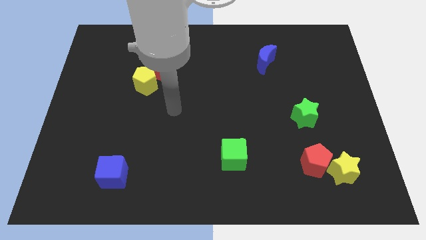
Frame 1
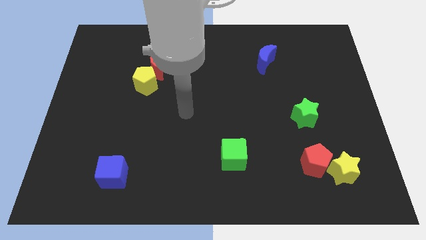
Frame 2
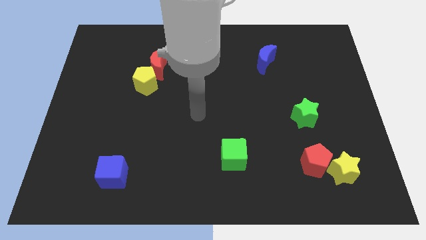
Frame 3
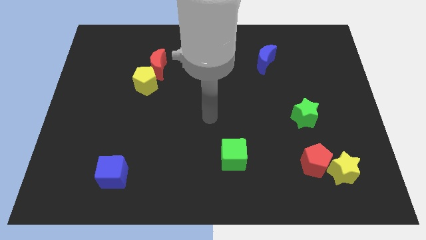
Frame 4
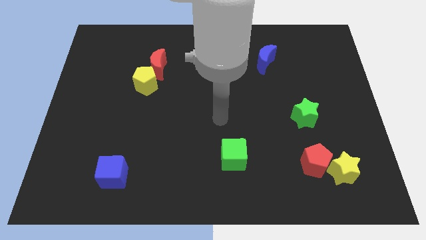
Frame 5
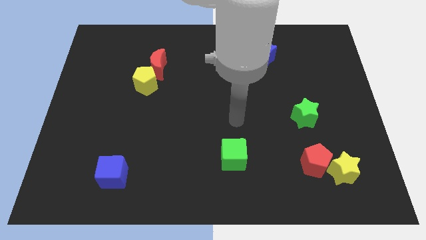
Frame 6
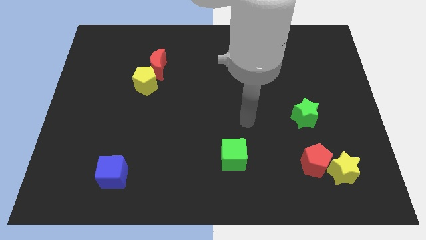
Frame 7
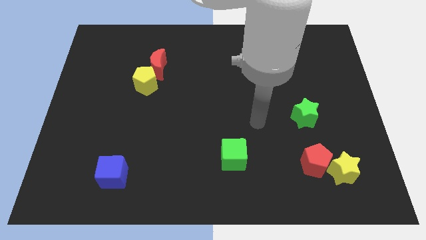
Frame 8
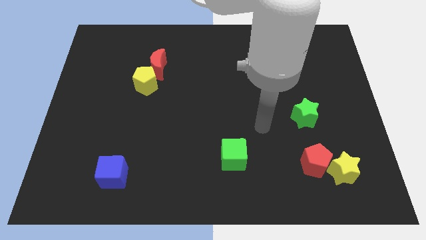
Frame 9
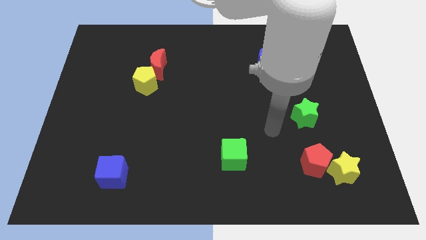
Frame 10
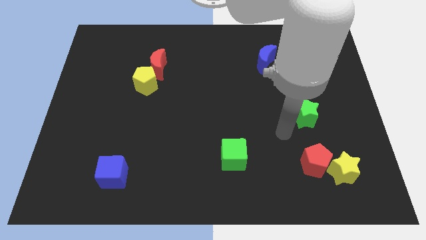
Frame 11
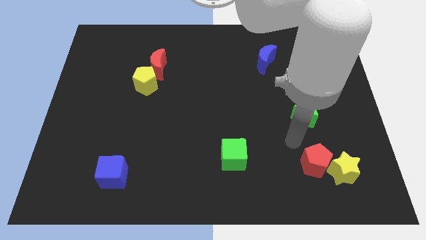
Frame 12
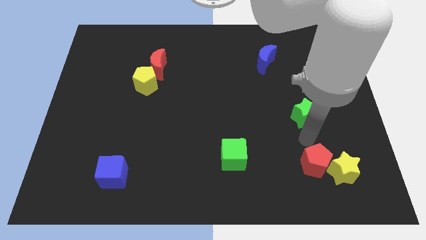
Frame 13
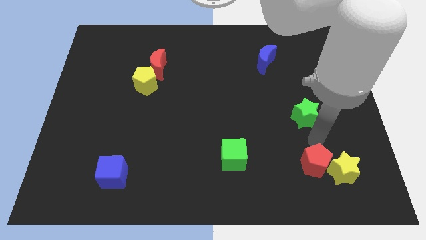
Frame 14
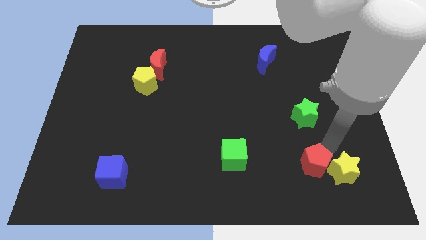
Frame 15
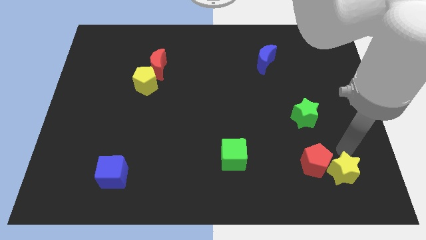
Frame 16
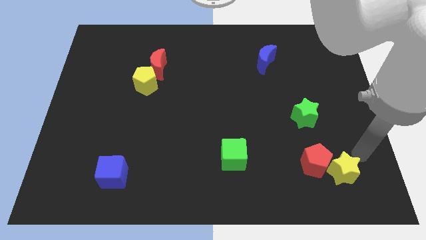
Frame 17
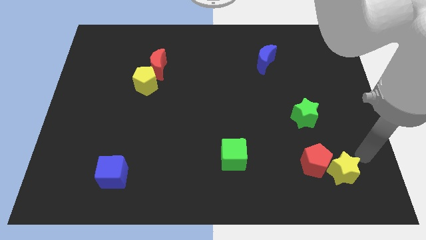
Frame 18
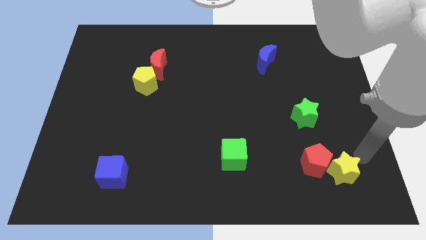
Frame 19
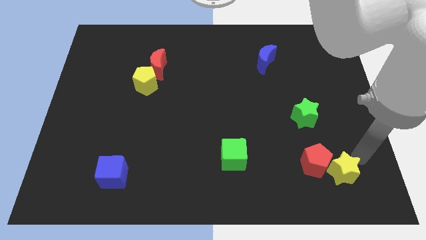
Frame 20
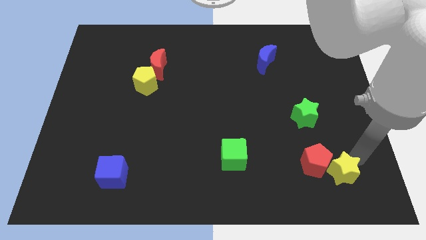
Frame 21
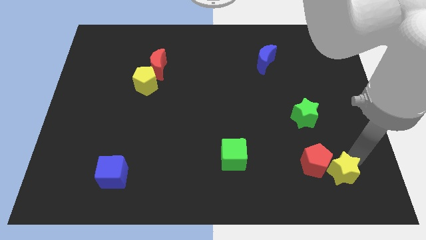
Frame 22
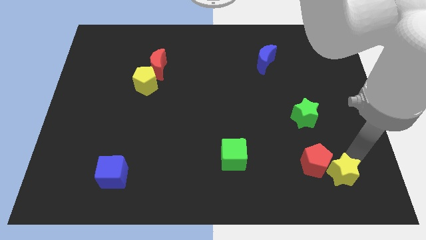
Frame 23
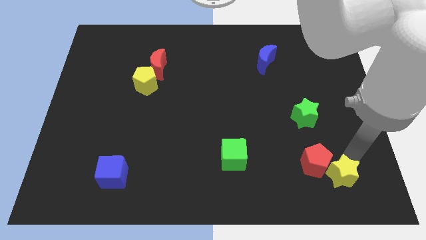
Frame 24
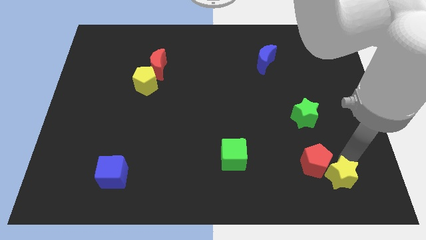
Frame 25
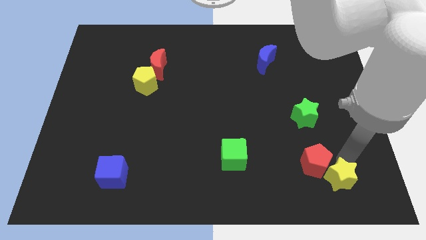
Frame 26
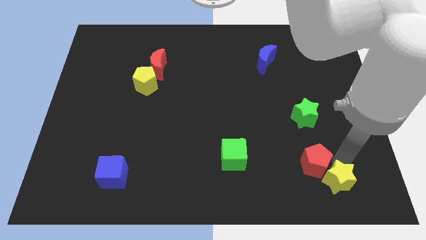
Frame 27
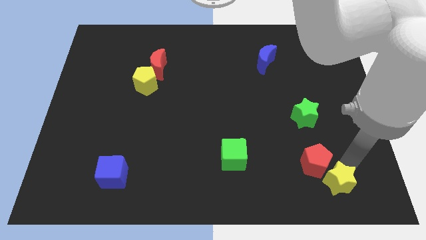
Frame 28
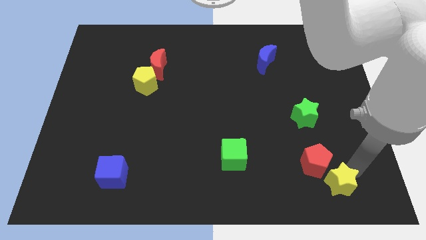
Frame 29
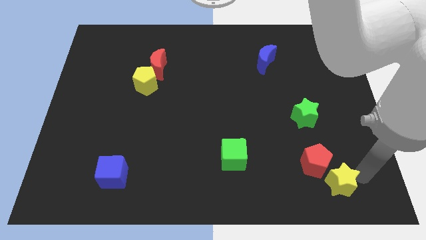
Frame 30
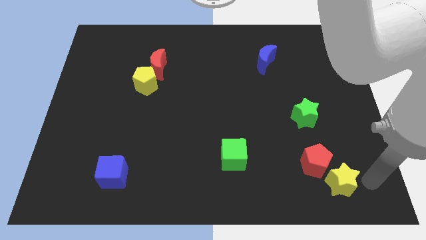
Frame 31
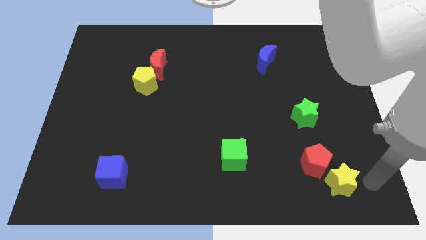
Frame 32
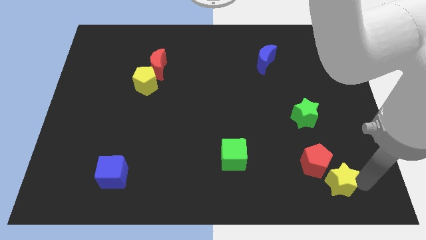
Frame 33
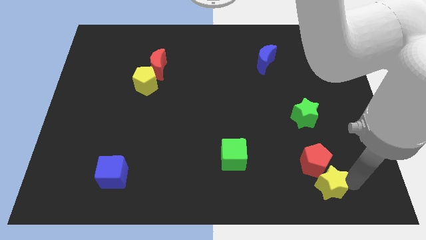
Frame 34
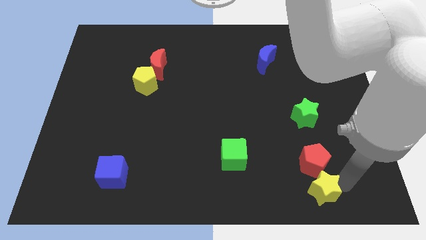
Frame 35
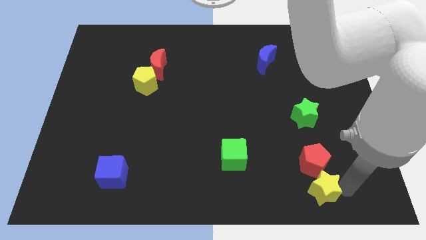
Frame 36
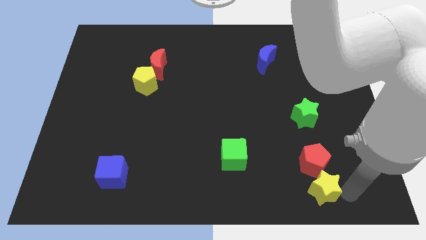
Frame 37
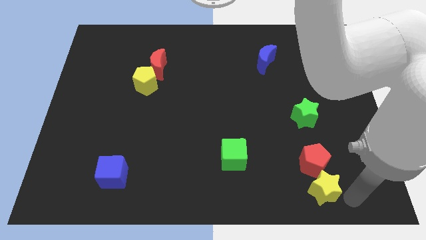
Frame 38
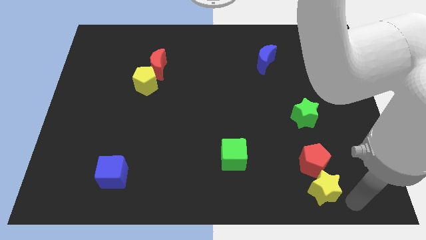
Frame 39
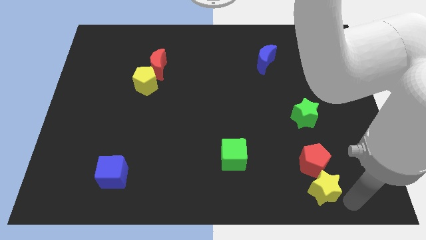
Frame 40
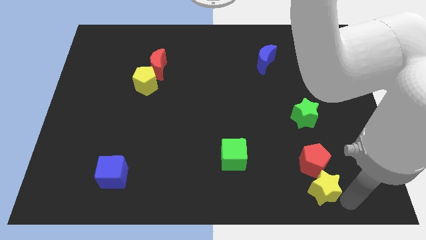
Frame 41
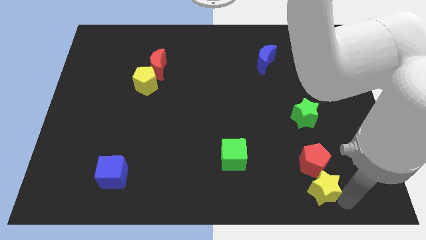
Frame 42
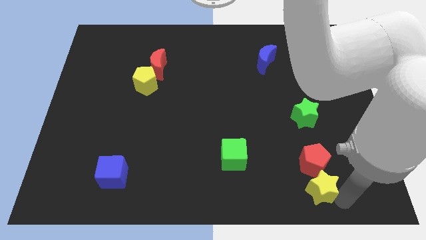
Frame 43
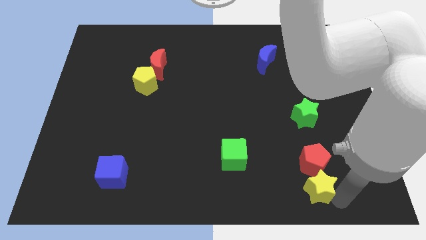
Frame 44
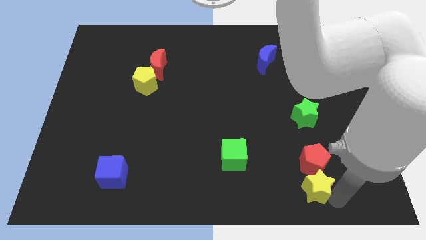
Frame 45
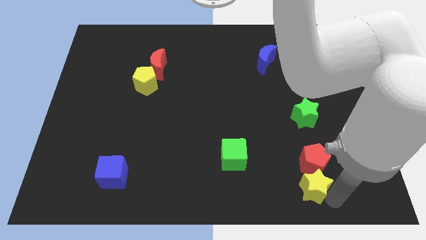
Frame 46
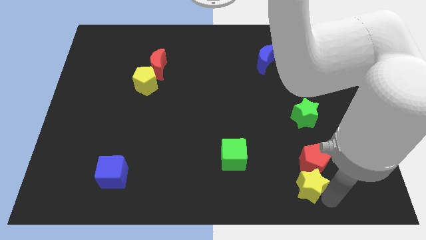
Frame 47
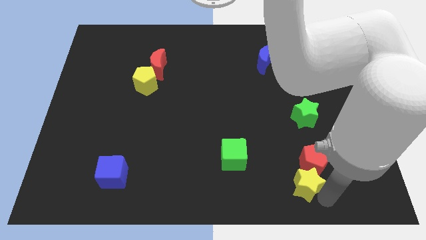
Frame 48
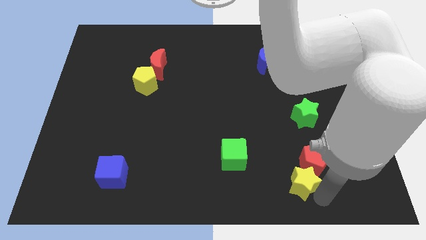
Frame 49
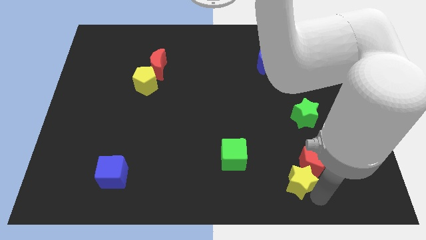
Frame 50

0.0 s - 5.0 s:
push the yellow star just left of the red pentagon

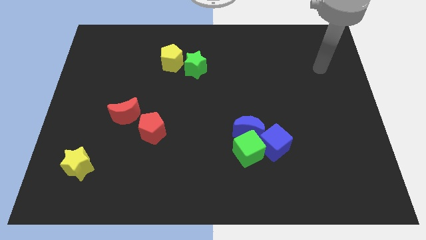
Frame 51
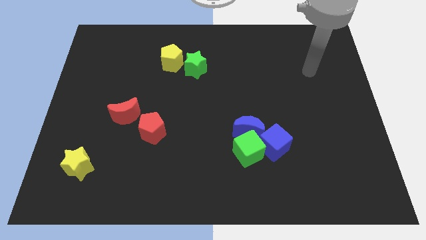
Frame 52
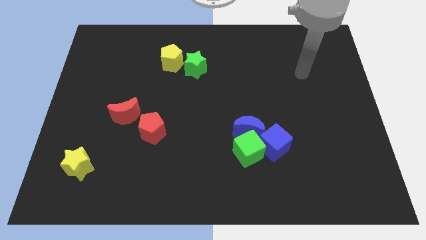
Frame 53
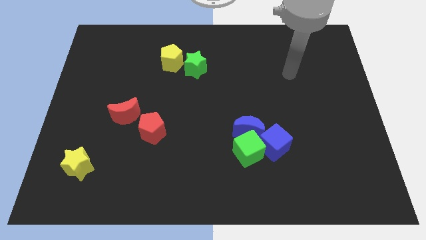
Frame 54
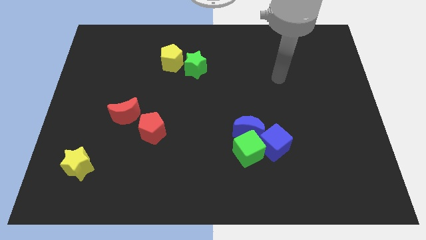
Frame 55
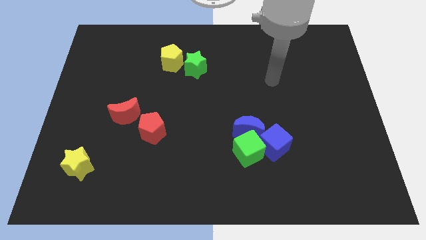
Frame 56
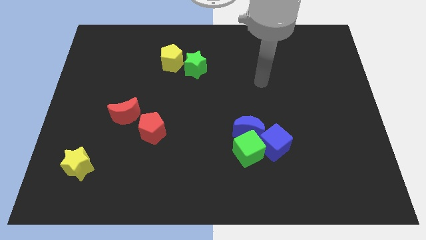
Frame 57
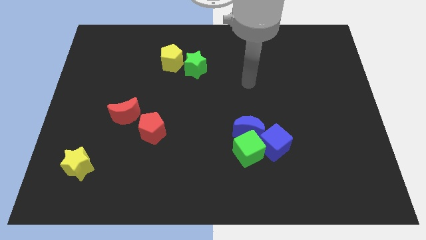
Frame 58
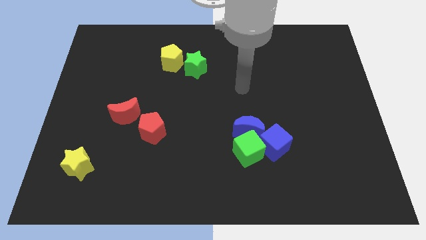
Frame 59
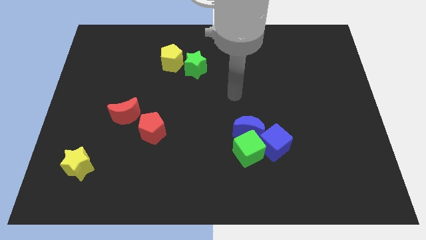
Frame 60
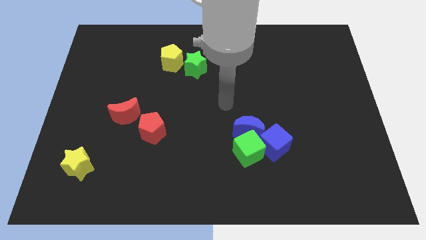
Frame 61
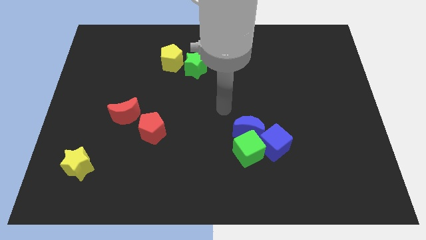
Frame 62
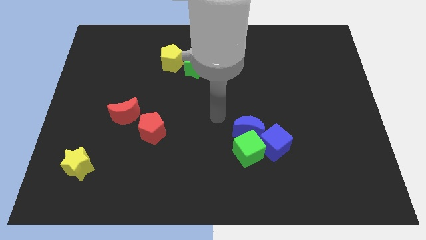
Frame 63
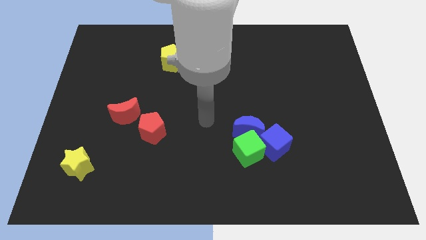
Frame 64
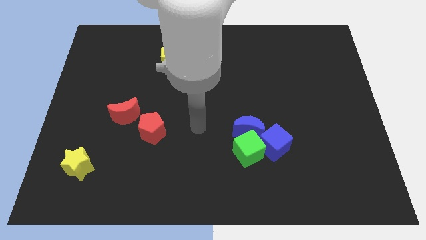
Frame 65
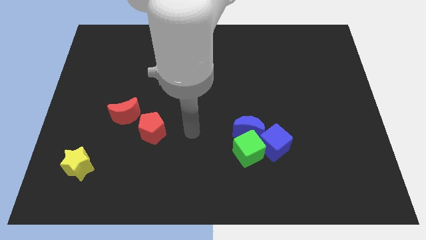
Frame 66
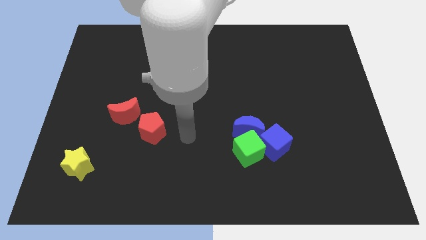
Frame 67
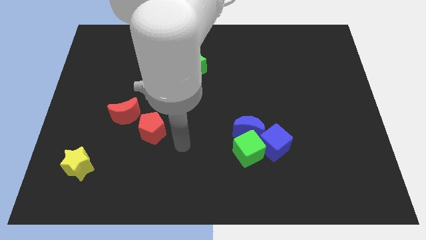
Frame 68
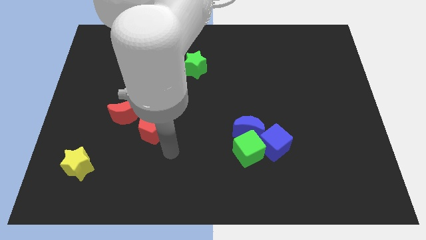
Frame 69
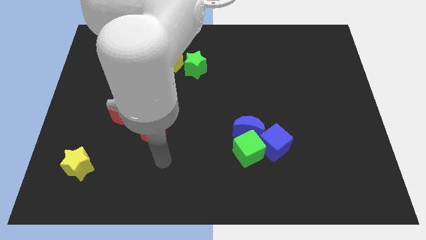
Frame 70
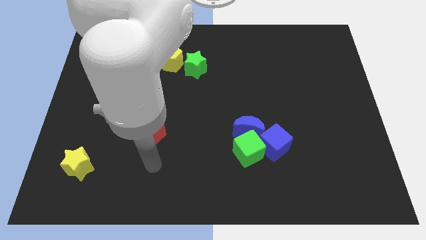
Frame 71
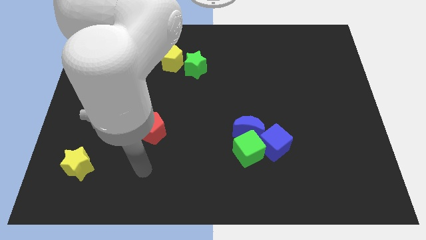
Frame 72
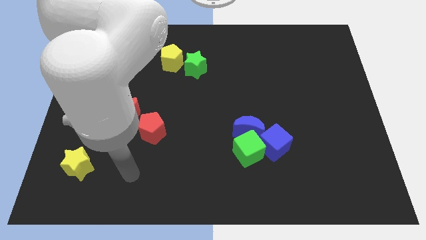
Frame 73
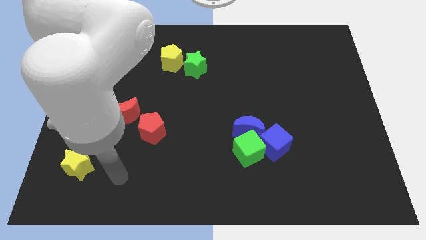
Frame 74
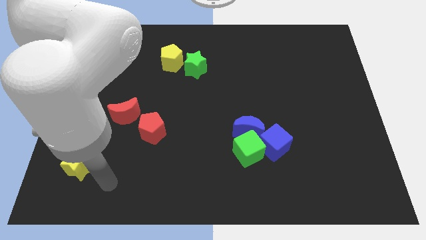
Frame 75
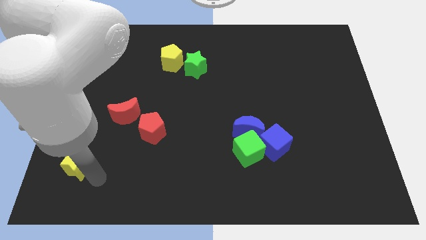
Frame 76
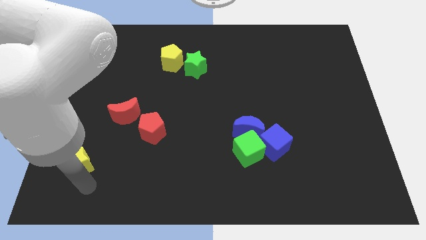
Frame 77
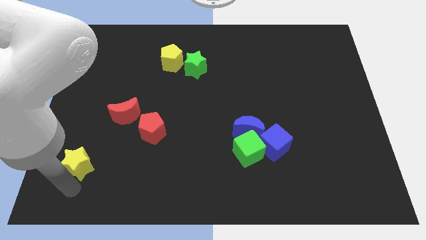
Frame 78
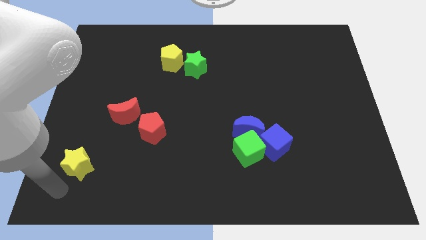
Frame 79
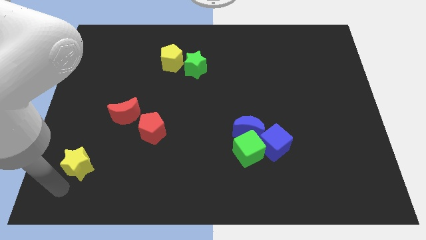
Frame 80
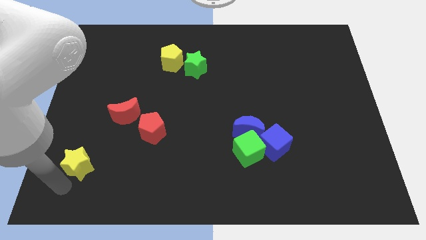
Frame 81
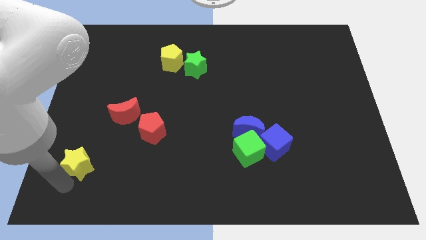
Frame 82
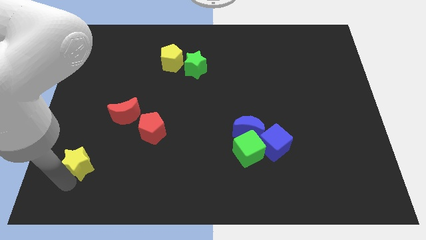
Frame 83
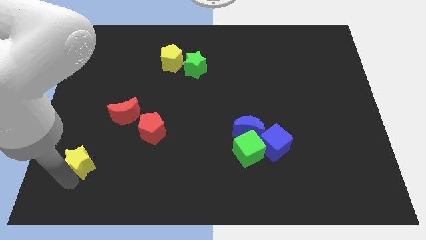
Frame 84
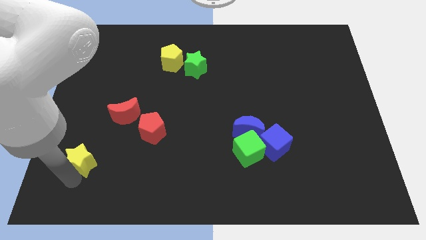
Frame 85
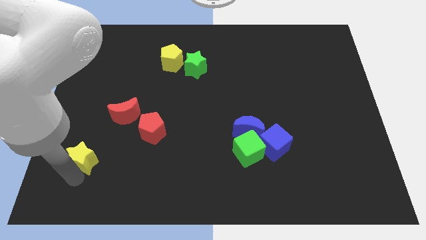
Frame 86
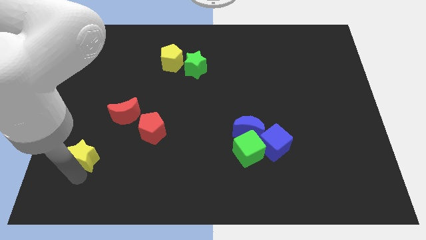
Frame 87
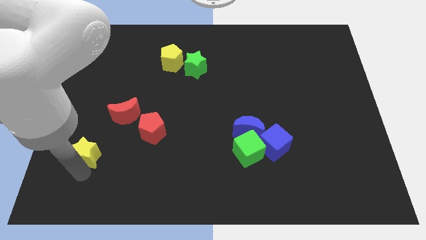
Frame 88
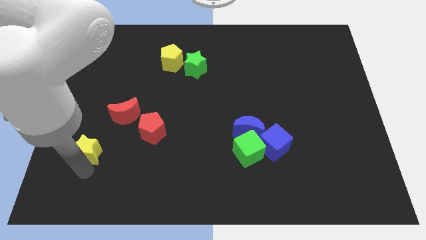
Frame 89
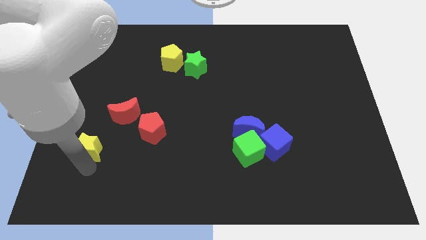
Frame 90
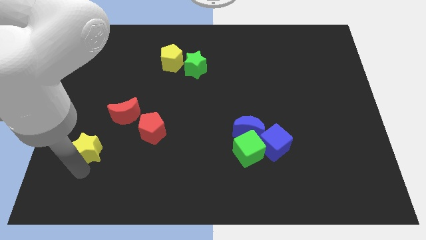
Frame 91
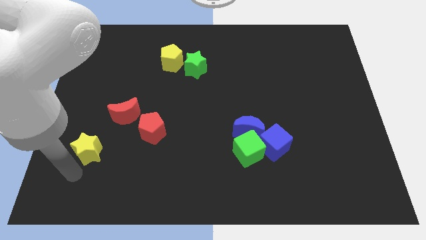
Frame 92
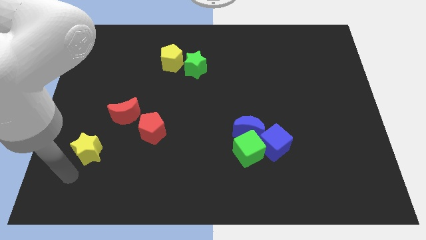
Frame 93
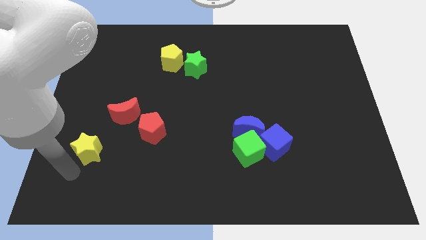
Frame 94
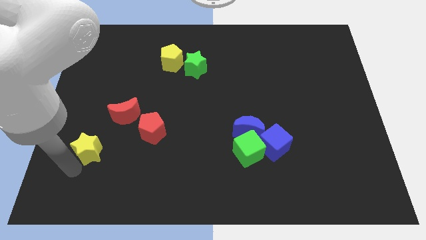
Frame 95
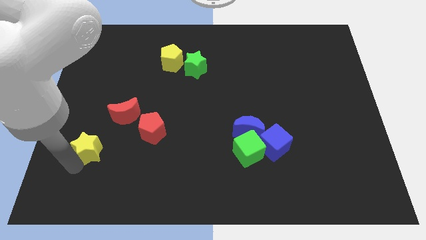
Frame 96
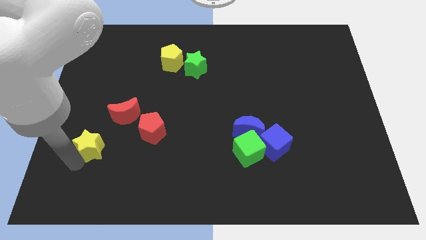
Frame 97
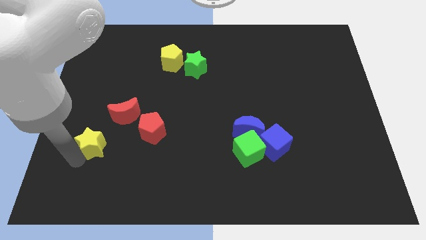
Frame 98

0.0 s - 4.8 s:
push the yellow star to the left side of the red pentagon
